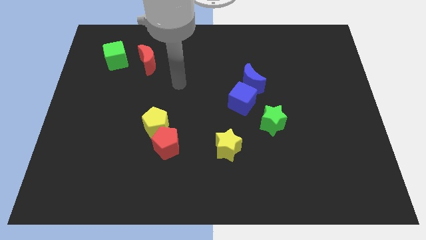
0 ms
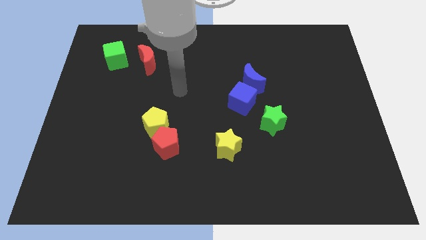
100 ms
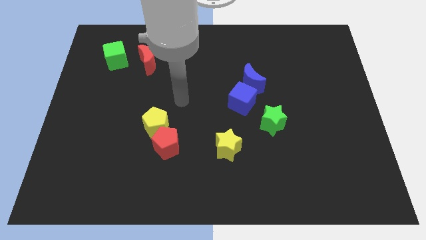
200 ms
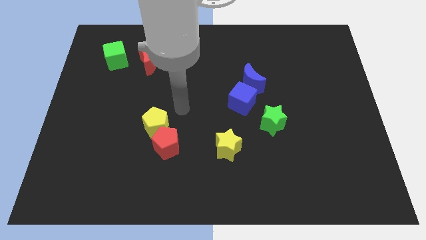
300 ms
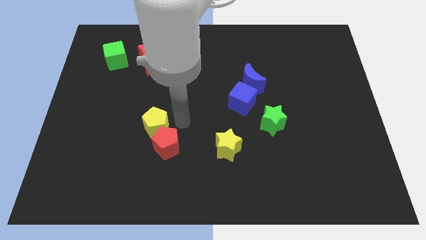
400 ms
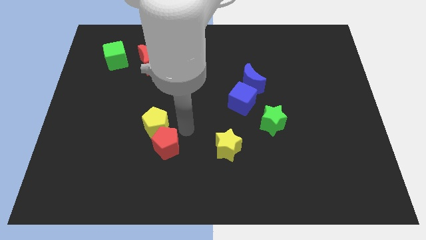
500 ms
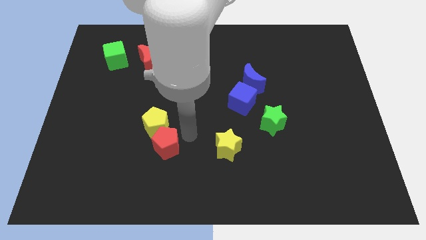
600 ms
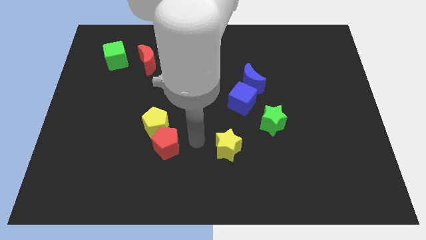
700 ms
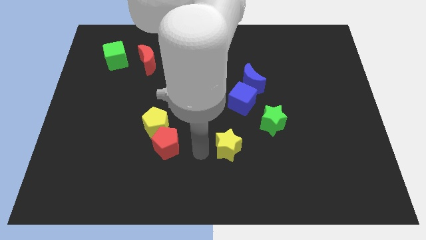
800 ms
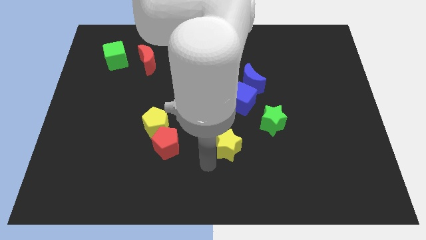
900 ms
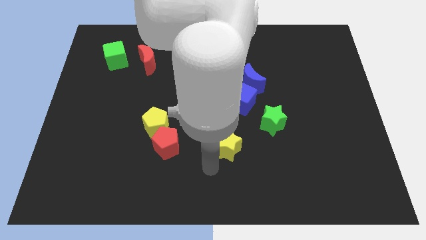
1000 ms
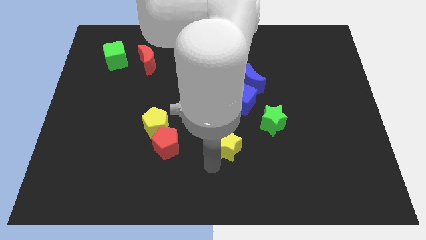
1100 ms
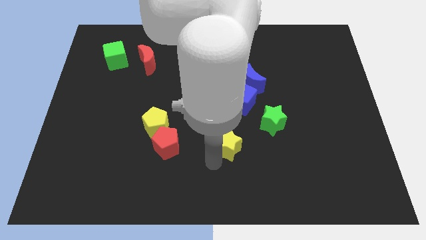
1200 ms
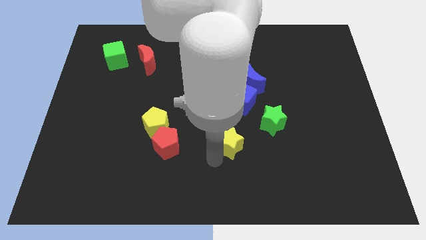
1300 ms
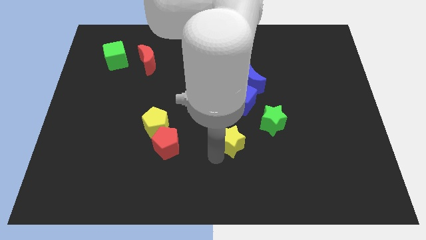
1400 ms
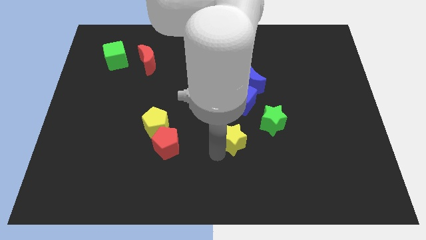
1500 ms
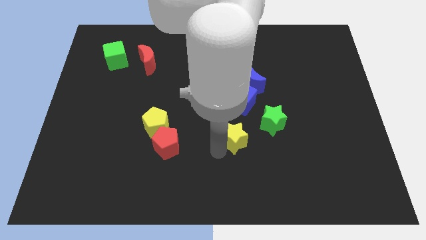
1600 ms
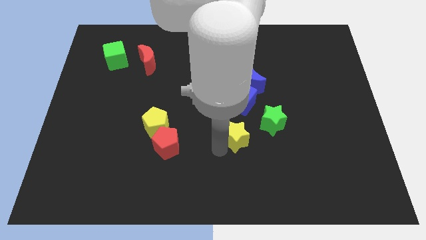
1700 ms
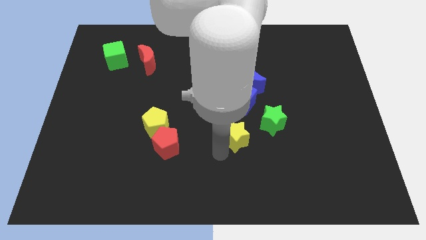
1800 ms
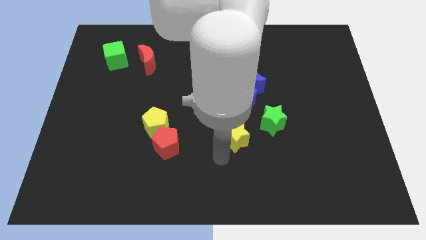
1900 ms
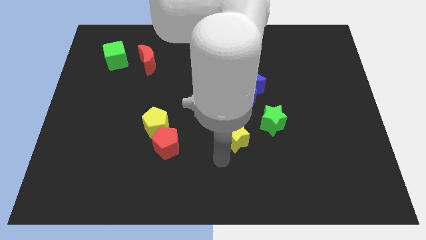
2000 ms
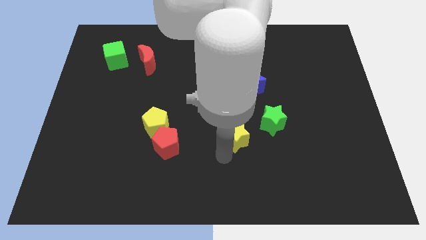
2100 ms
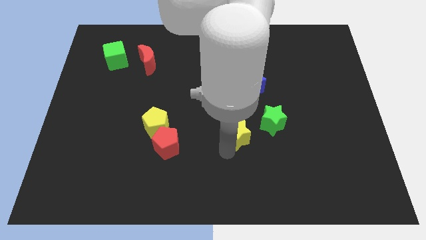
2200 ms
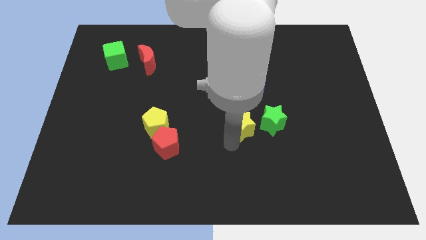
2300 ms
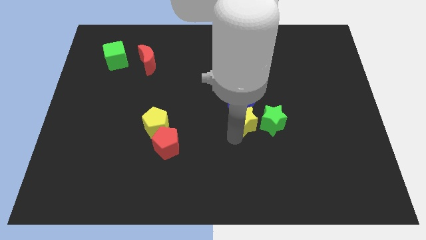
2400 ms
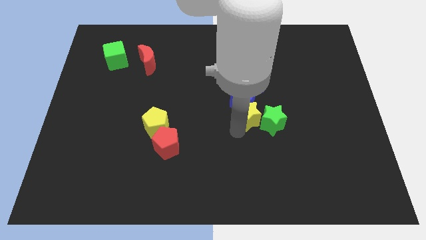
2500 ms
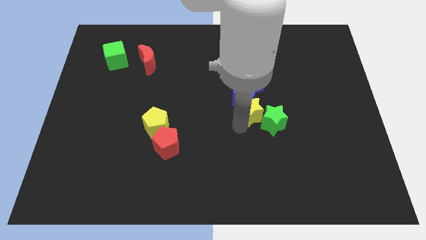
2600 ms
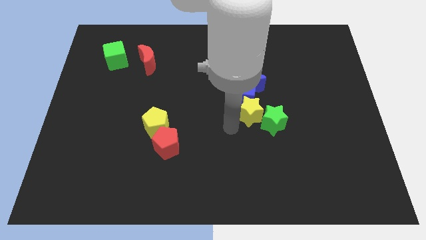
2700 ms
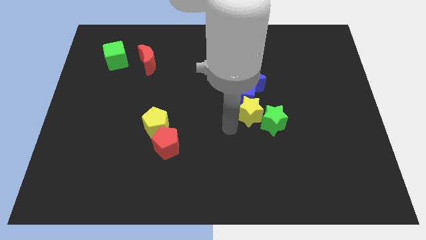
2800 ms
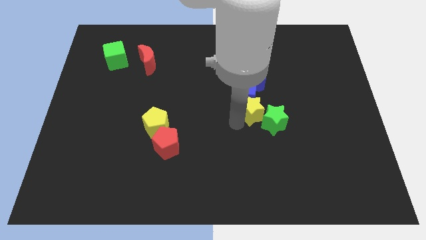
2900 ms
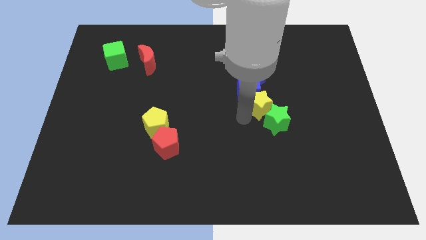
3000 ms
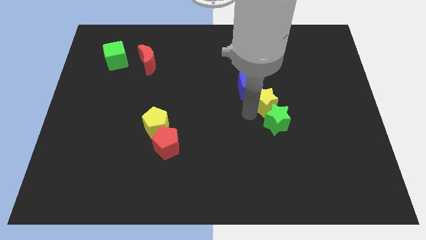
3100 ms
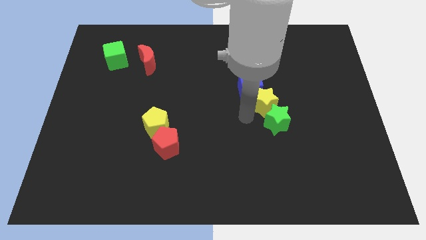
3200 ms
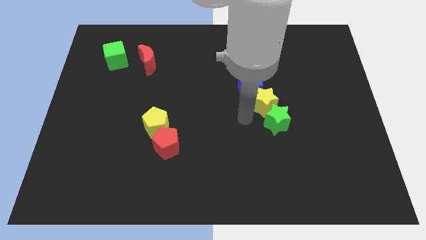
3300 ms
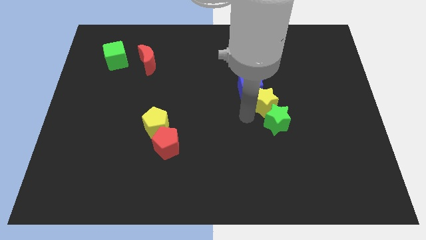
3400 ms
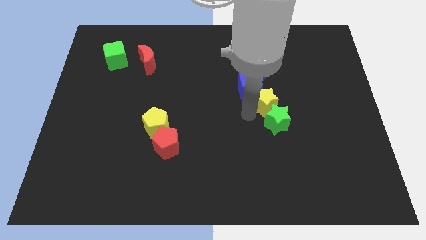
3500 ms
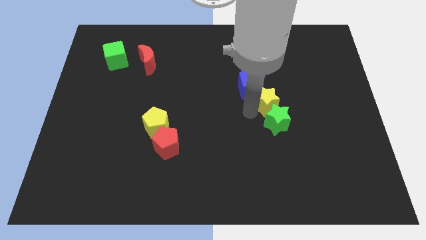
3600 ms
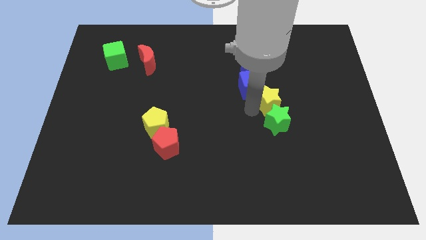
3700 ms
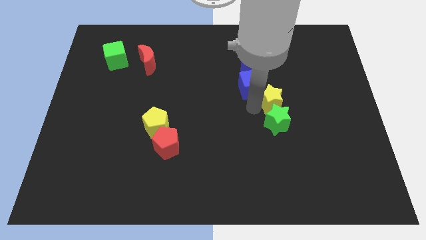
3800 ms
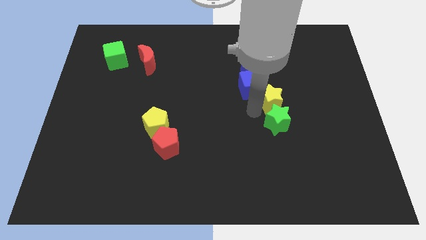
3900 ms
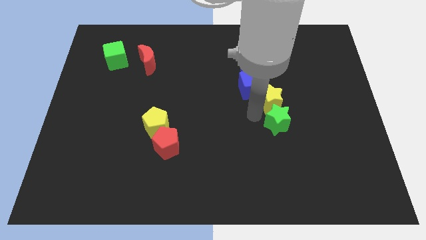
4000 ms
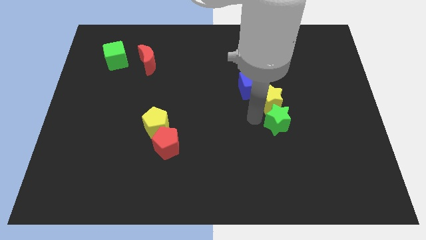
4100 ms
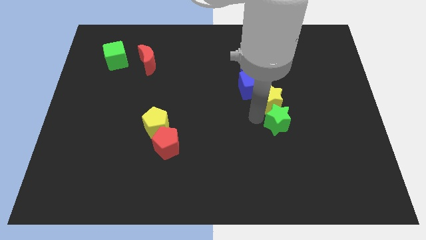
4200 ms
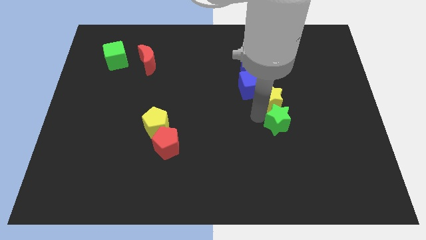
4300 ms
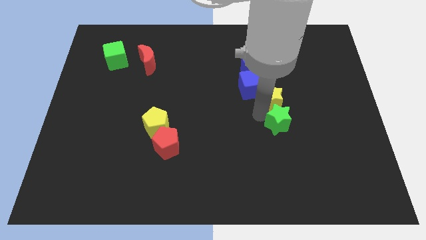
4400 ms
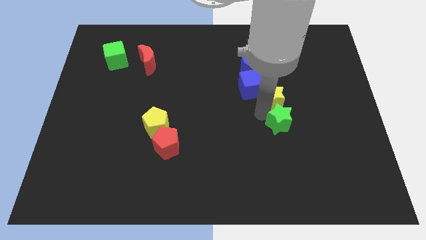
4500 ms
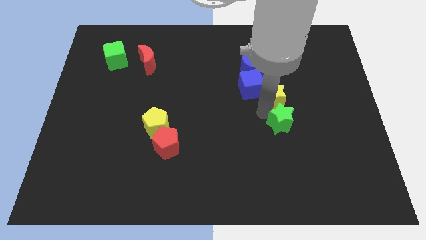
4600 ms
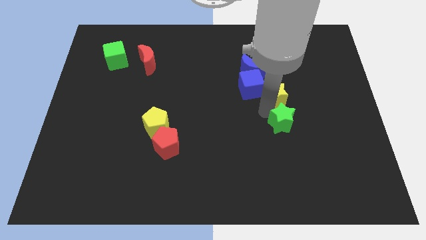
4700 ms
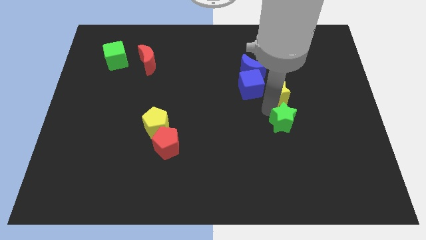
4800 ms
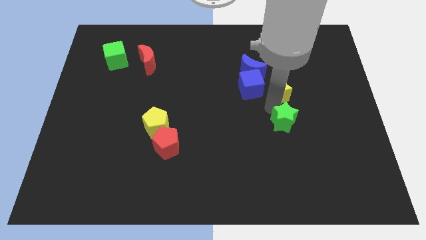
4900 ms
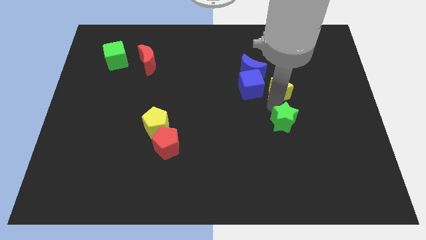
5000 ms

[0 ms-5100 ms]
push the yellow star up and right

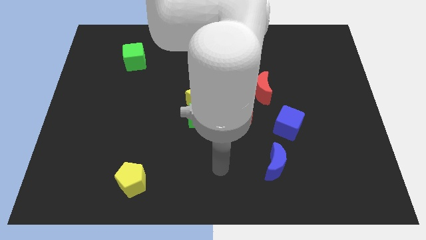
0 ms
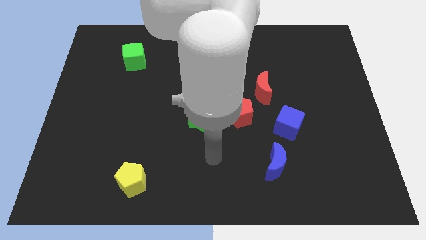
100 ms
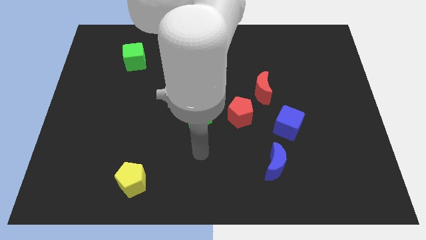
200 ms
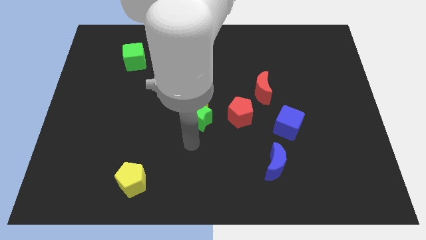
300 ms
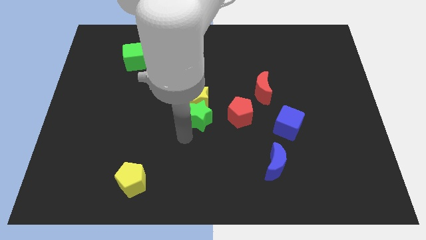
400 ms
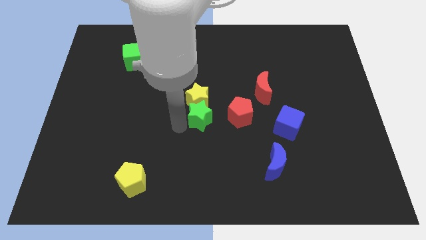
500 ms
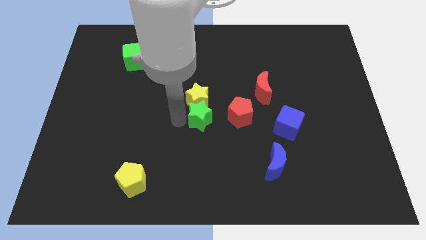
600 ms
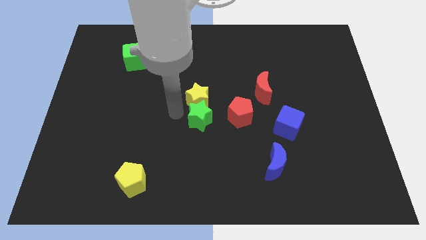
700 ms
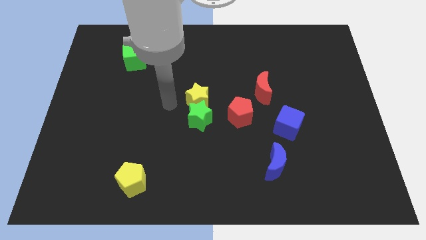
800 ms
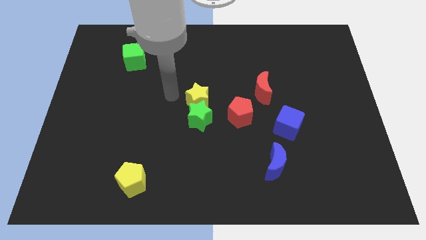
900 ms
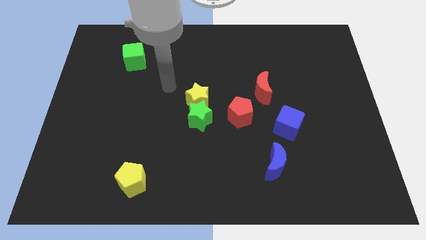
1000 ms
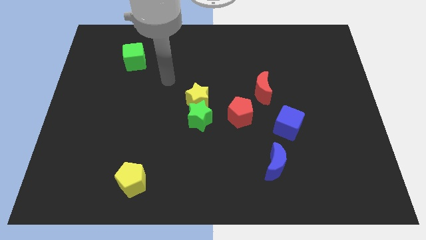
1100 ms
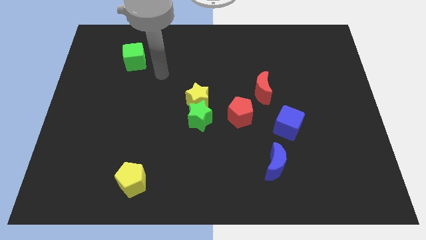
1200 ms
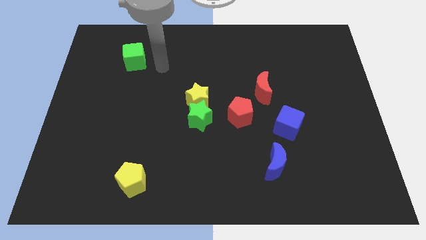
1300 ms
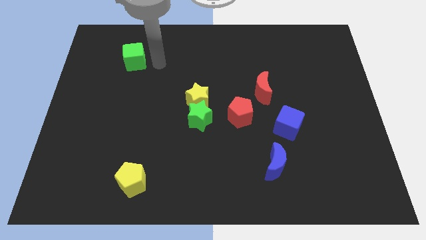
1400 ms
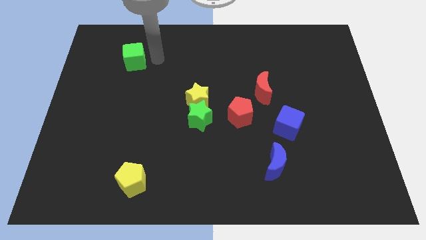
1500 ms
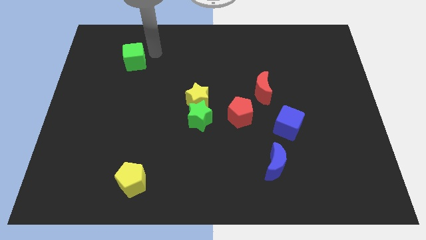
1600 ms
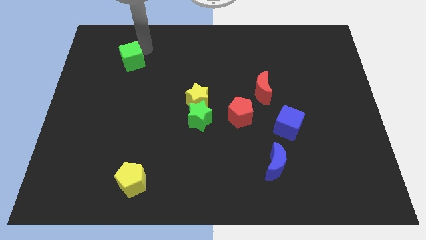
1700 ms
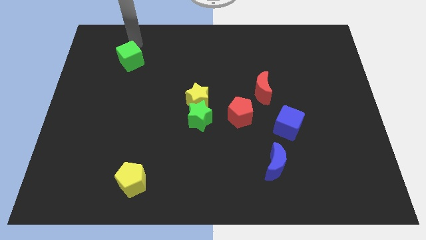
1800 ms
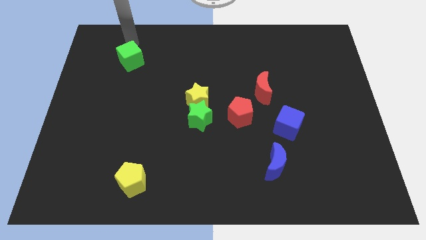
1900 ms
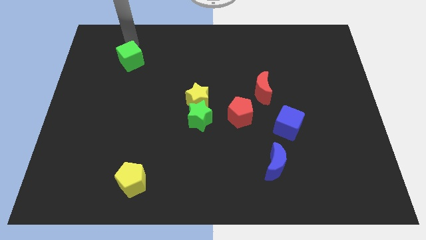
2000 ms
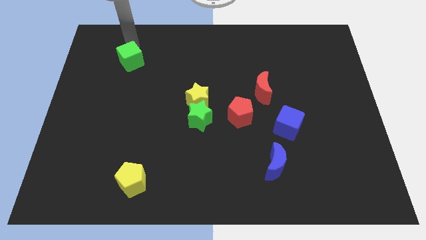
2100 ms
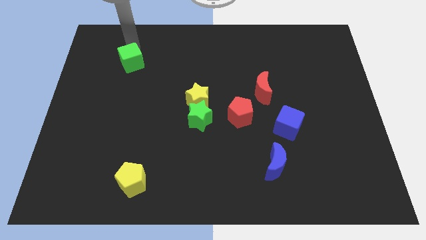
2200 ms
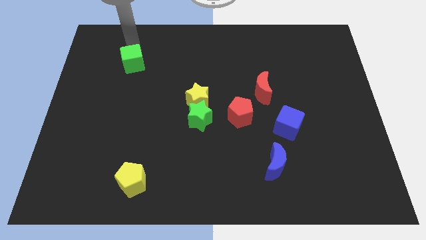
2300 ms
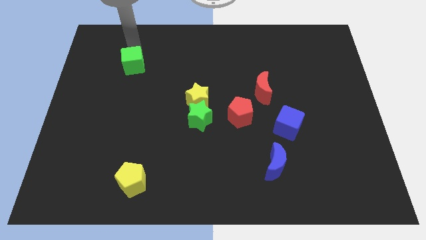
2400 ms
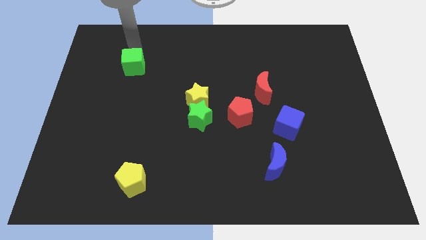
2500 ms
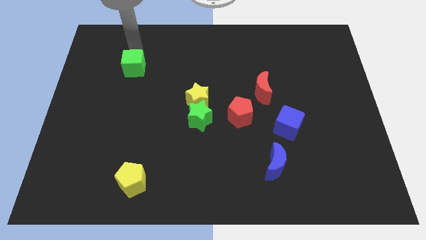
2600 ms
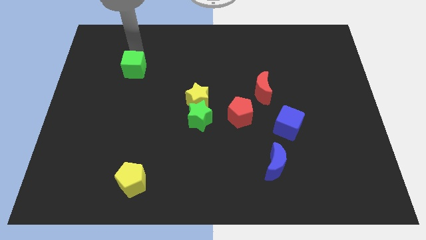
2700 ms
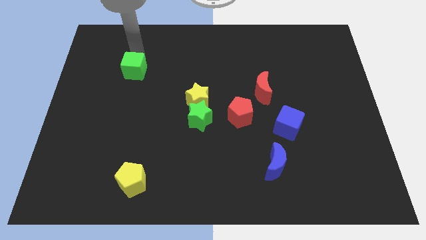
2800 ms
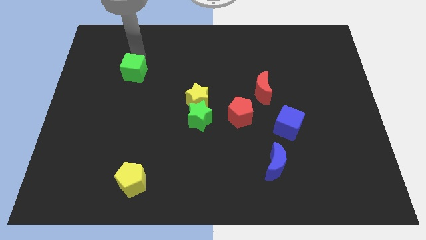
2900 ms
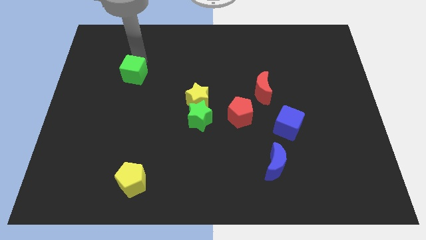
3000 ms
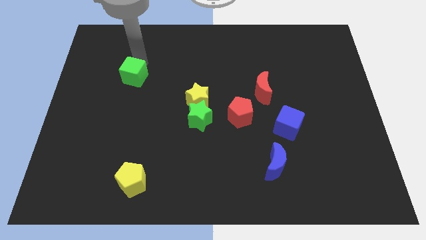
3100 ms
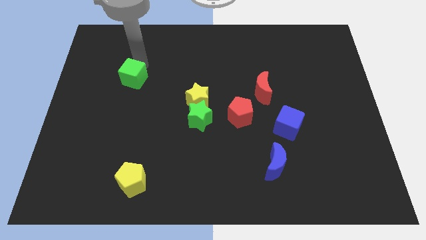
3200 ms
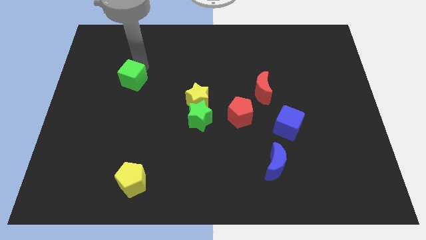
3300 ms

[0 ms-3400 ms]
move the green cube a little downwards
